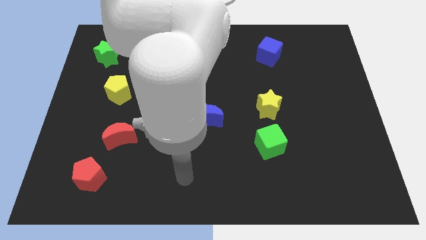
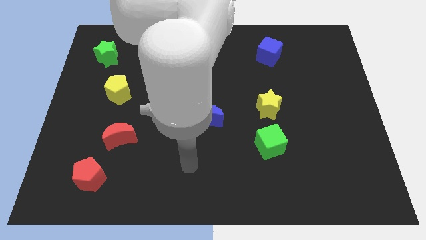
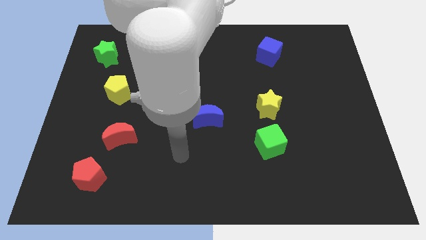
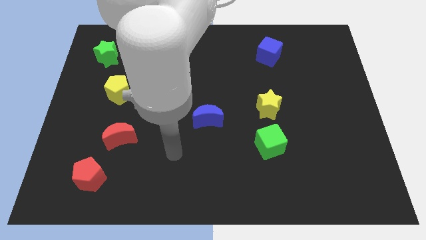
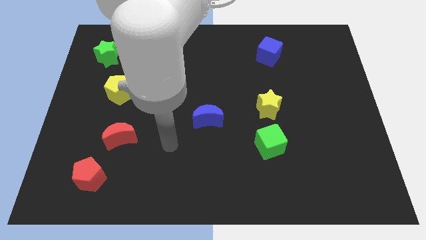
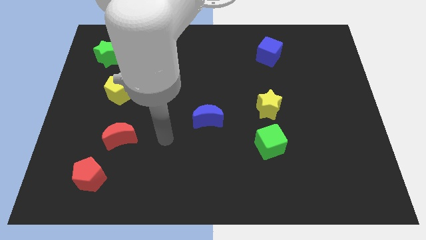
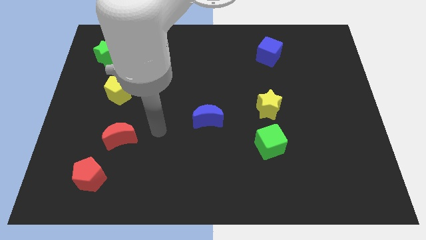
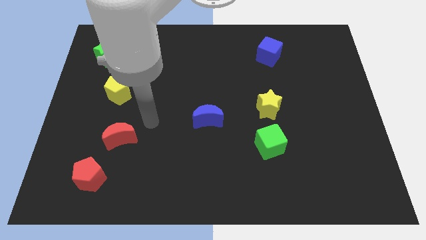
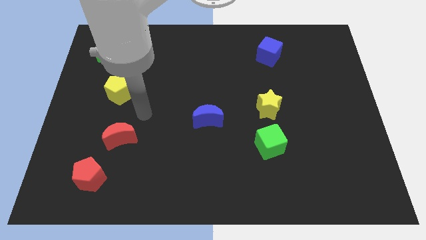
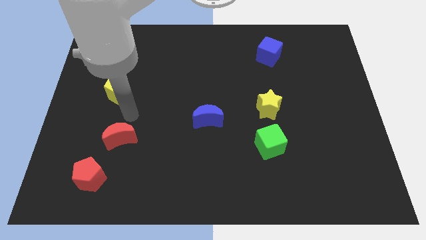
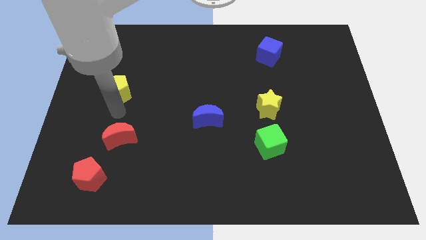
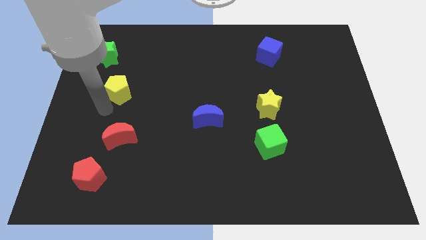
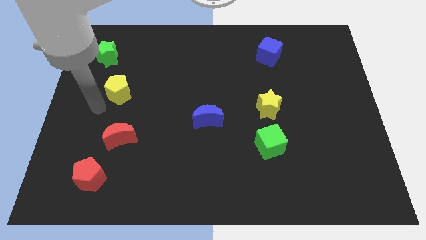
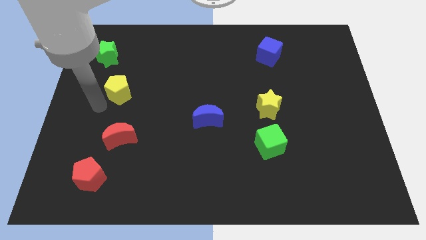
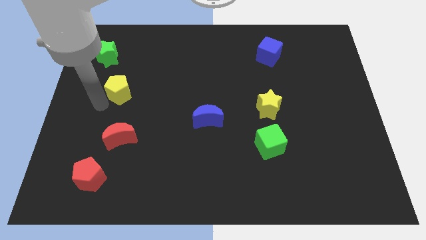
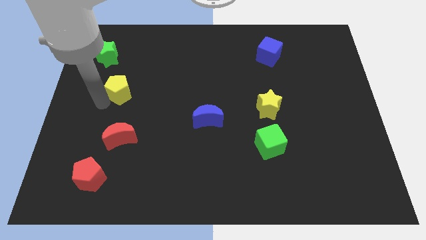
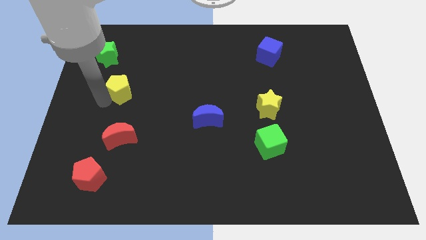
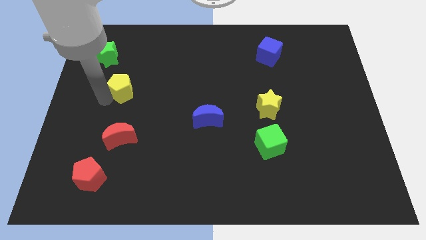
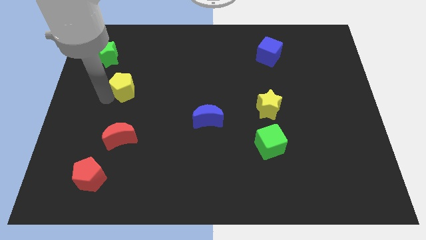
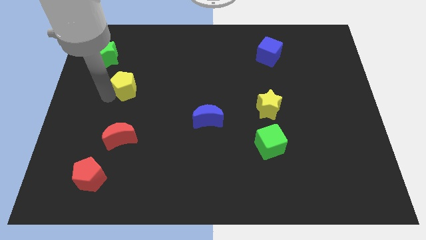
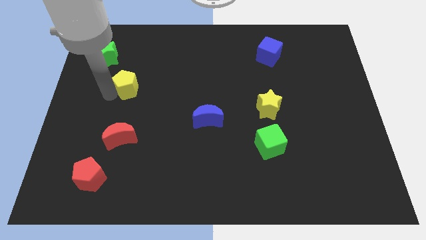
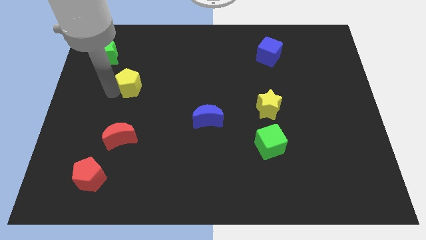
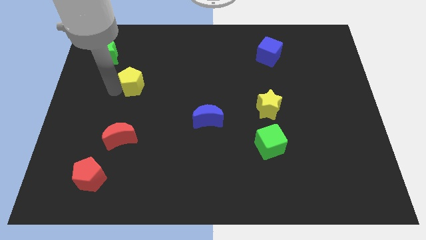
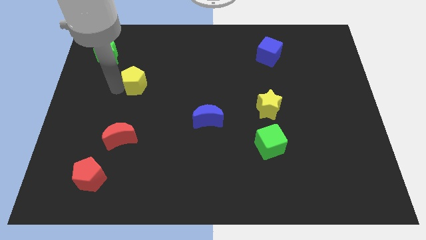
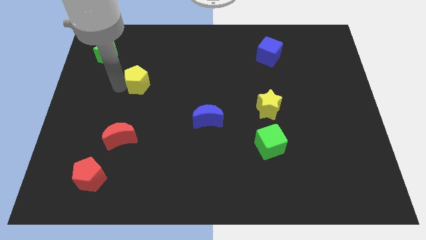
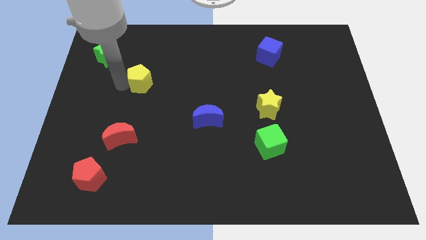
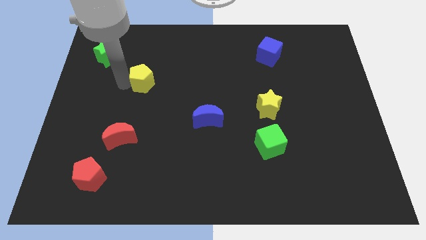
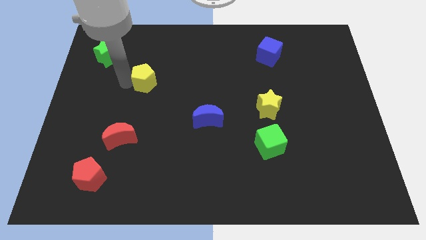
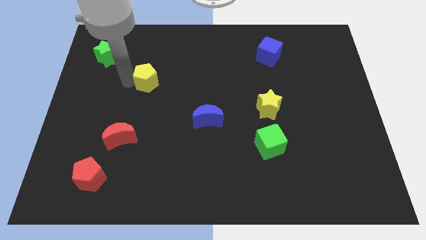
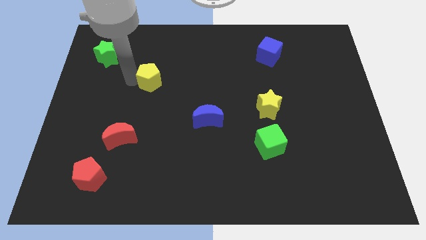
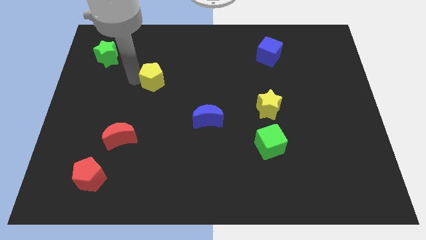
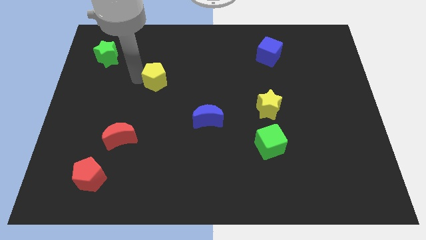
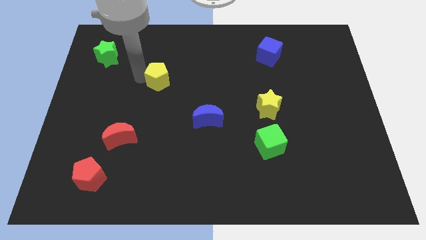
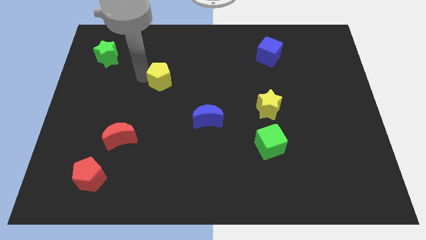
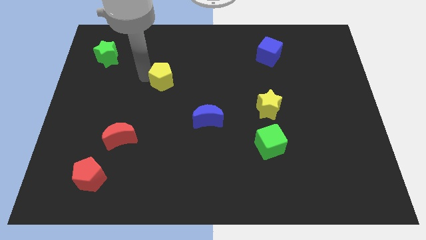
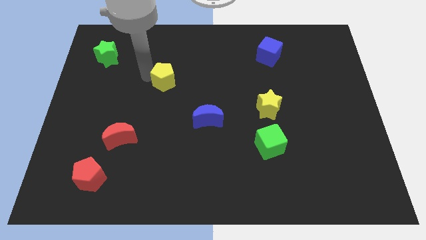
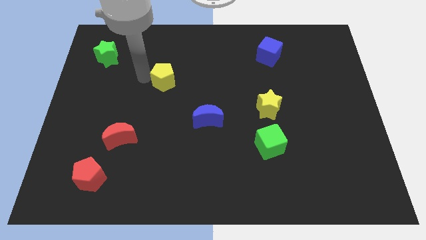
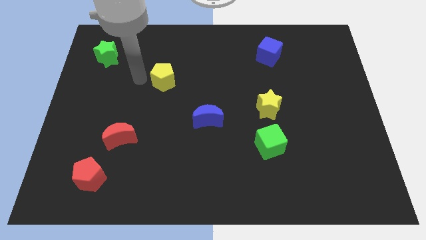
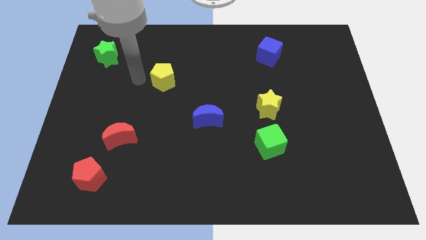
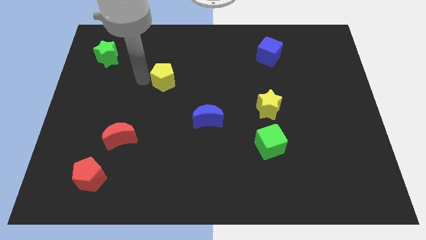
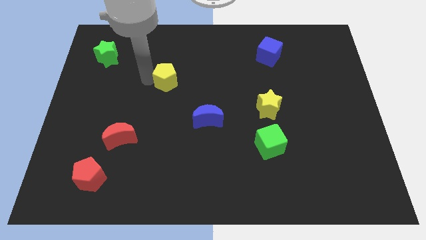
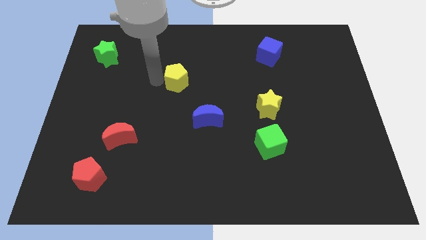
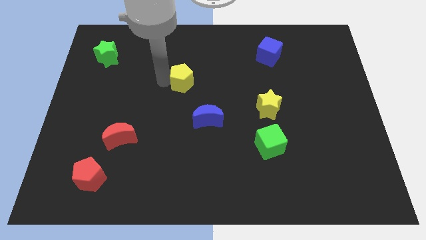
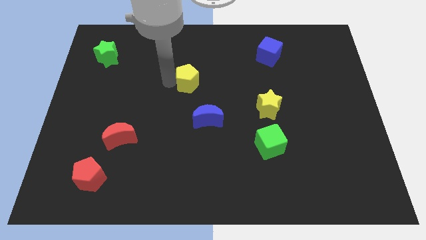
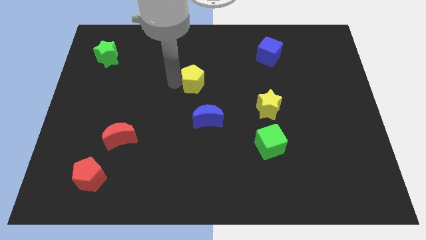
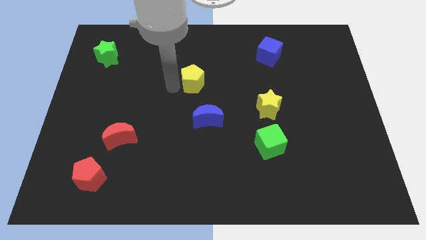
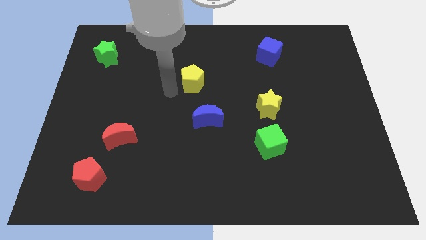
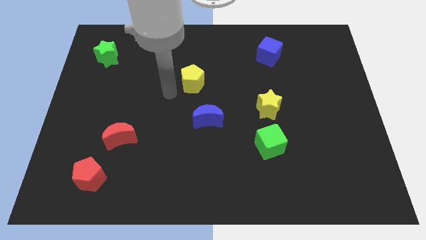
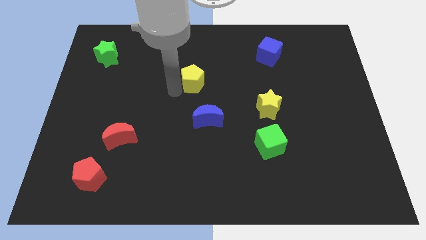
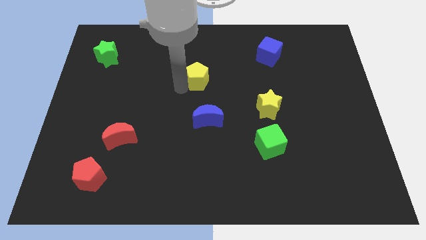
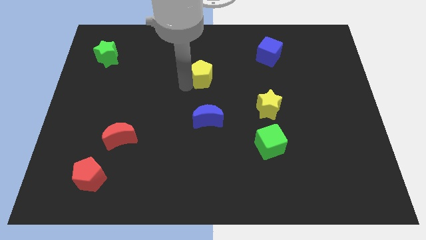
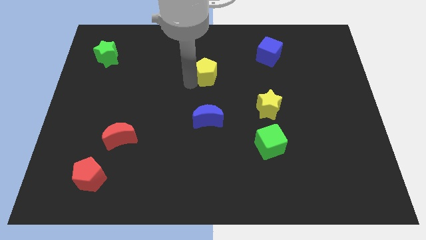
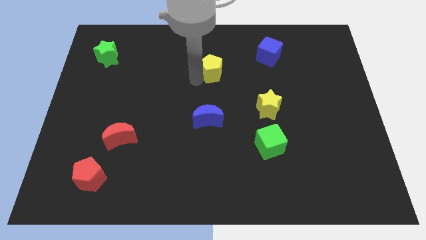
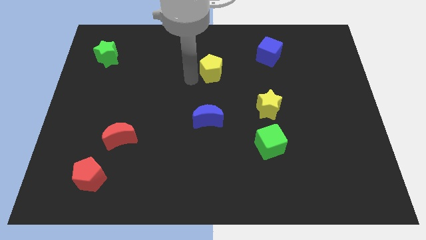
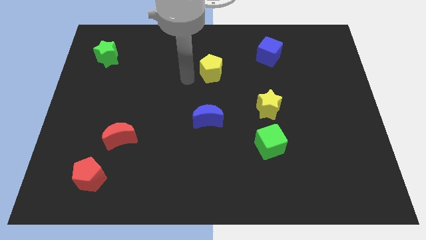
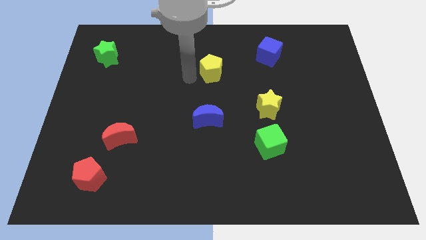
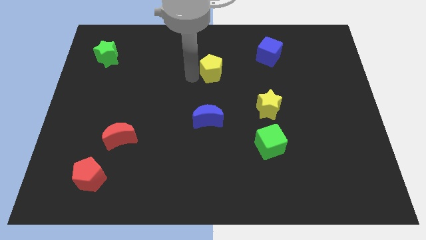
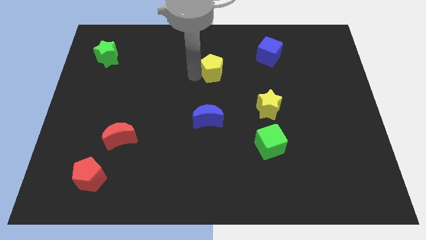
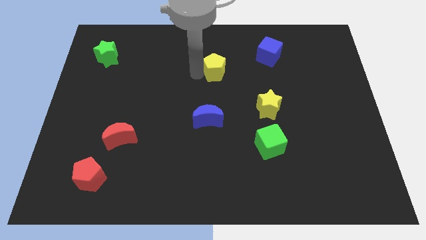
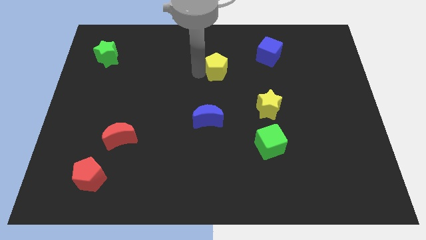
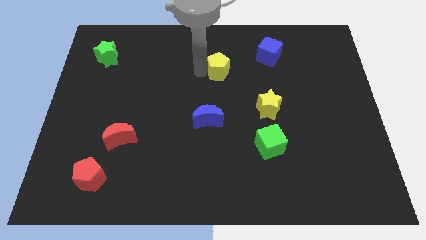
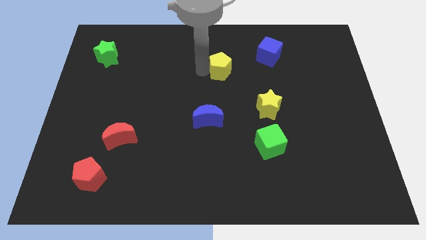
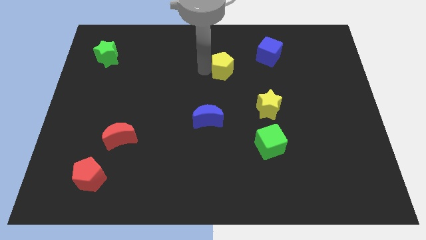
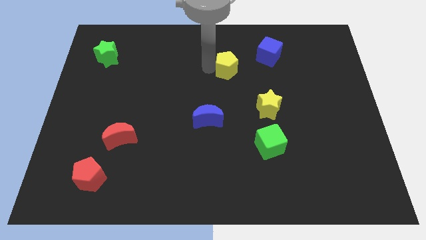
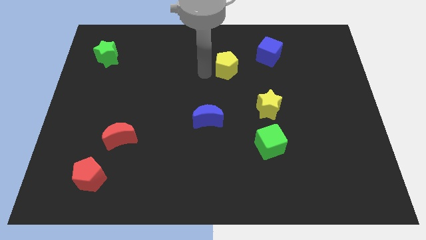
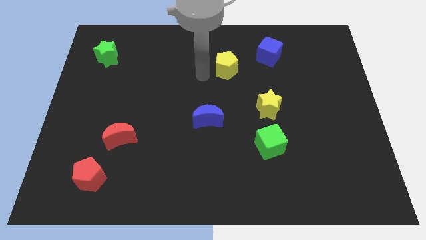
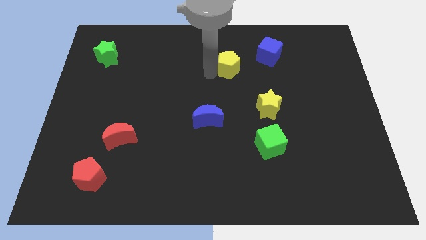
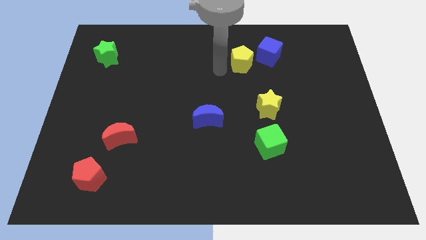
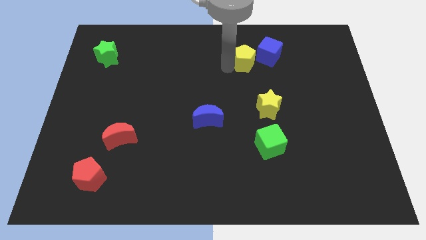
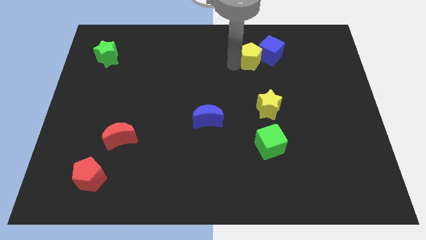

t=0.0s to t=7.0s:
move the yellow pentagon towards the blue cube

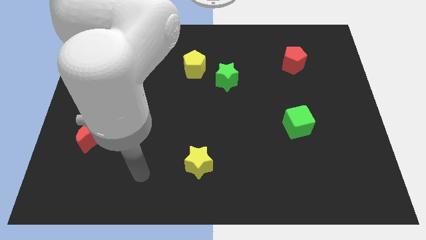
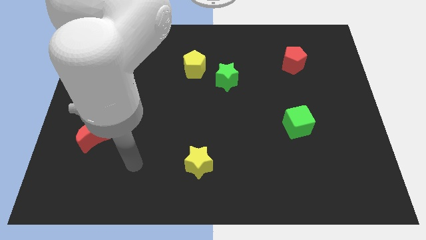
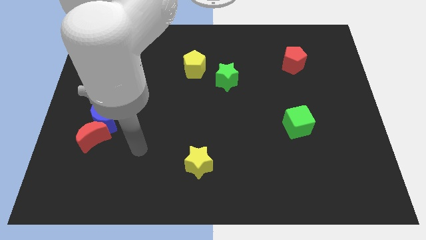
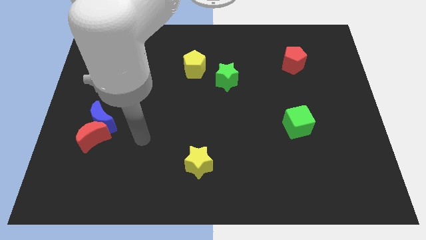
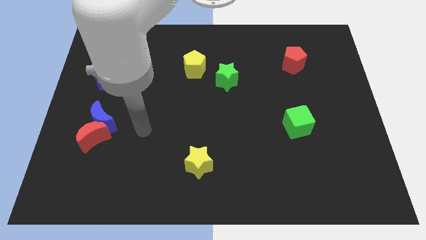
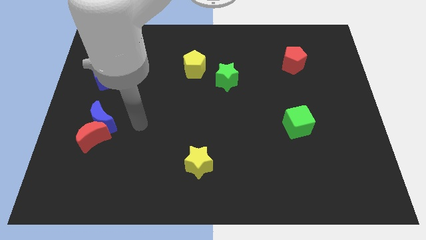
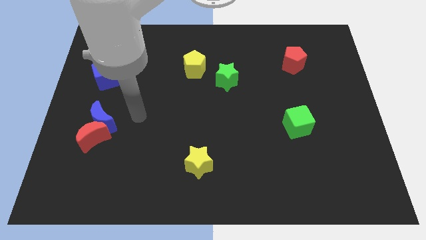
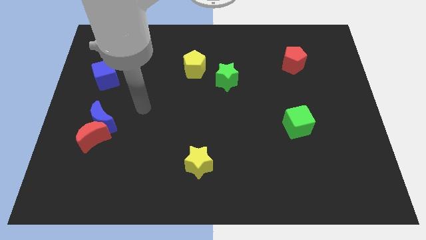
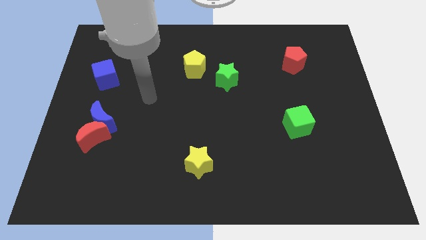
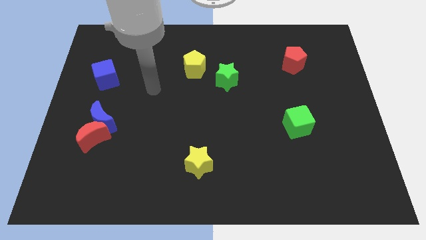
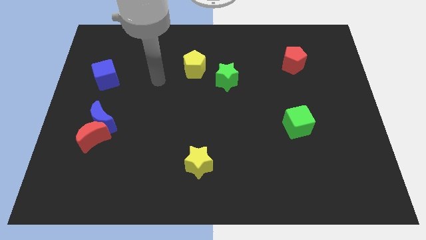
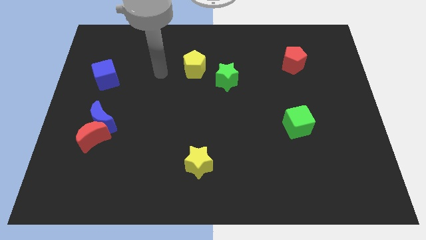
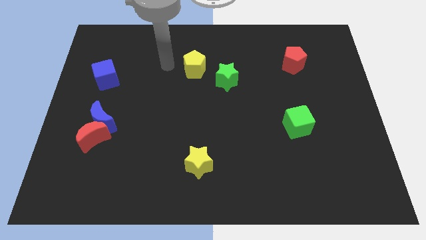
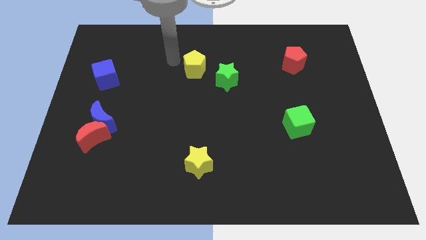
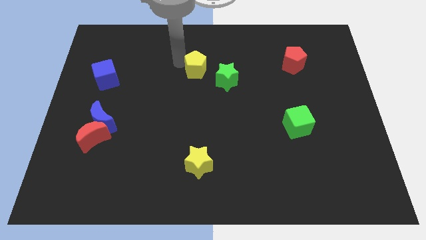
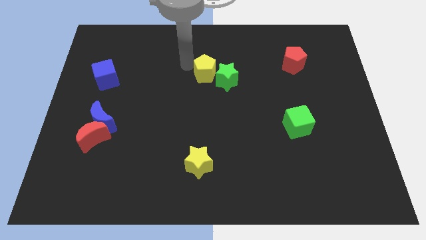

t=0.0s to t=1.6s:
move the yellow pentagon towards the green star
